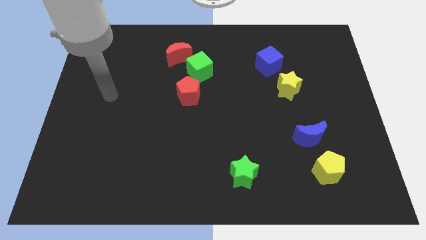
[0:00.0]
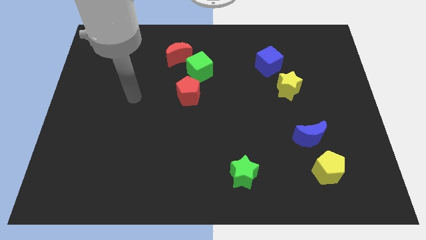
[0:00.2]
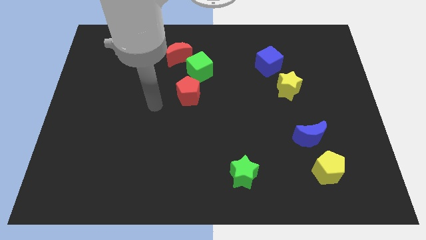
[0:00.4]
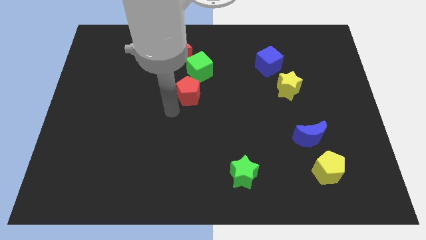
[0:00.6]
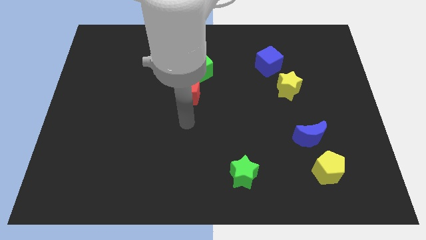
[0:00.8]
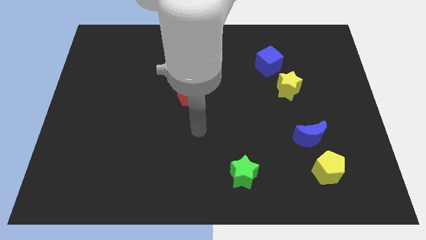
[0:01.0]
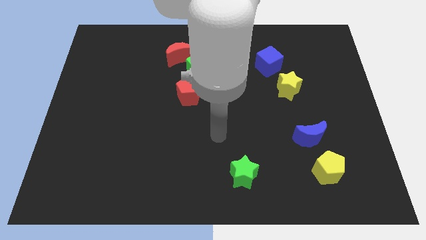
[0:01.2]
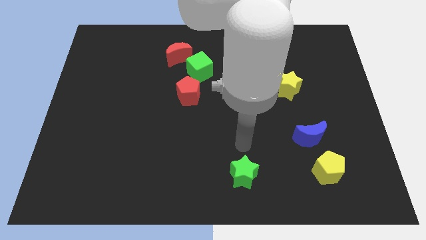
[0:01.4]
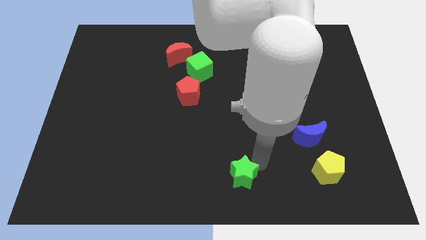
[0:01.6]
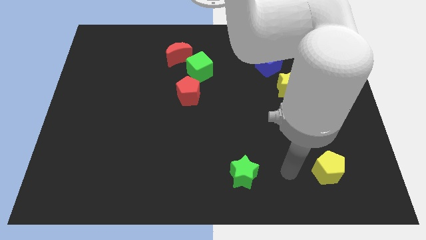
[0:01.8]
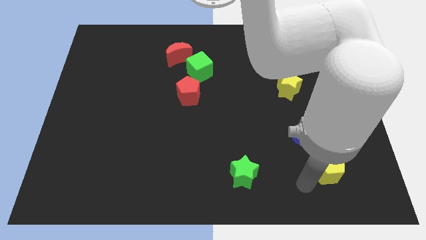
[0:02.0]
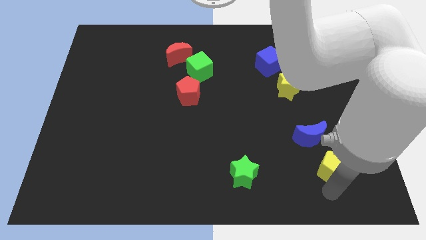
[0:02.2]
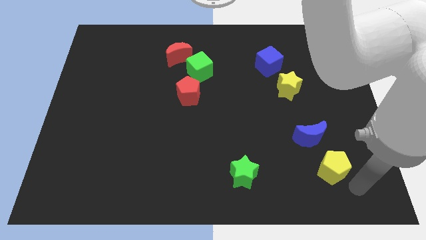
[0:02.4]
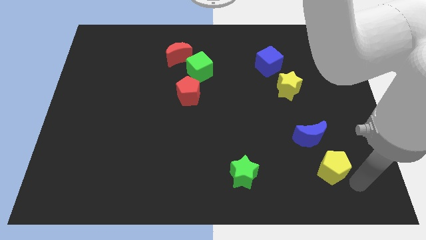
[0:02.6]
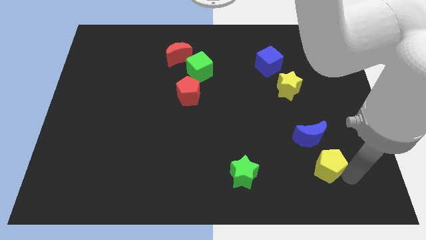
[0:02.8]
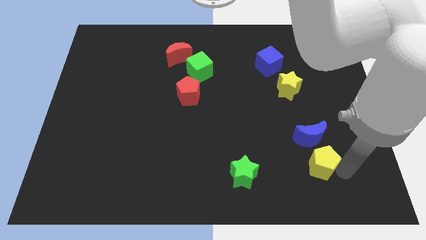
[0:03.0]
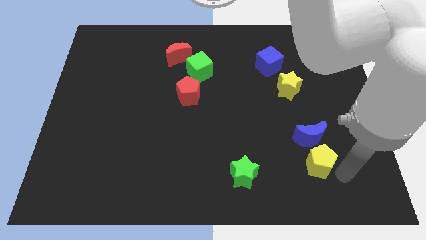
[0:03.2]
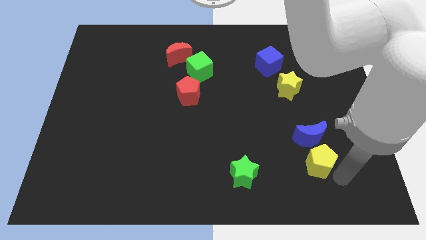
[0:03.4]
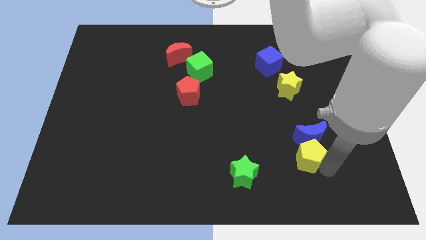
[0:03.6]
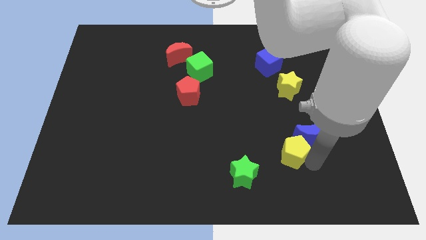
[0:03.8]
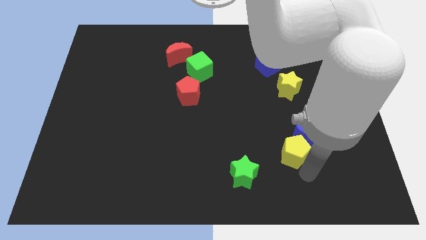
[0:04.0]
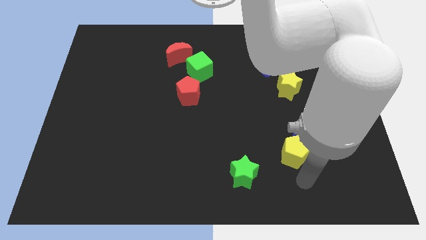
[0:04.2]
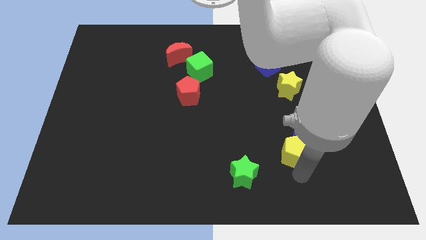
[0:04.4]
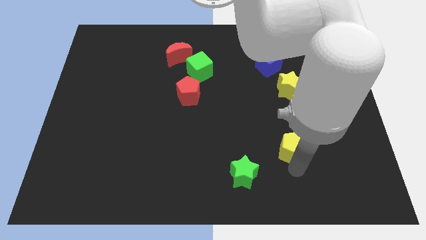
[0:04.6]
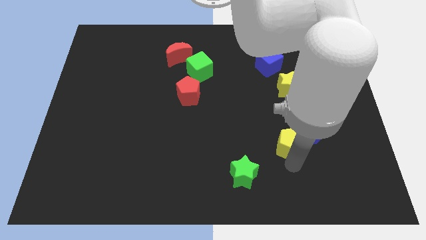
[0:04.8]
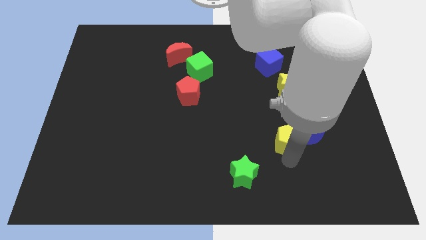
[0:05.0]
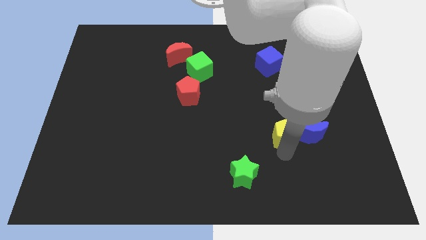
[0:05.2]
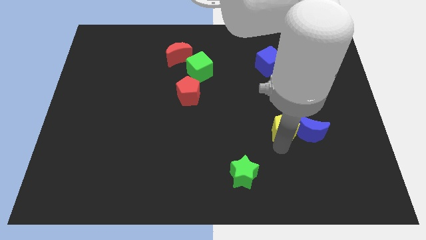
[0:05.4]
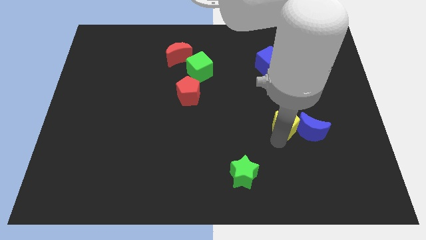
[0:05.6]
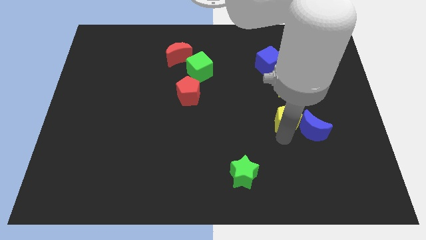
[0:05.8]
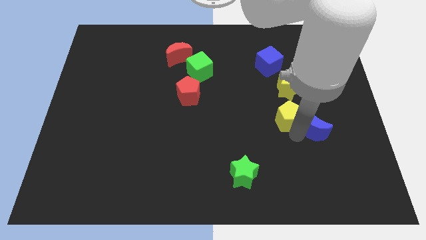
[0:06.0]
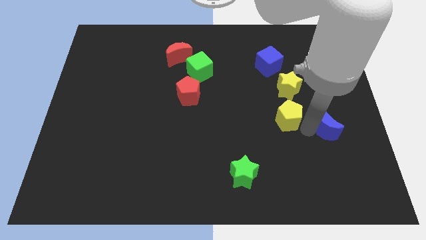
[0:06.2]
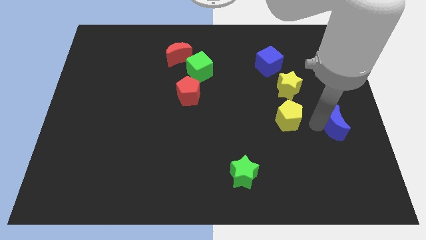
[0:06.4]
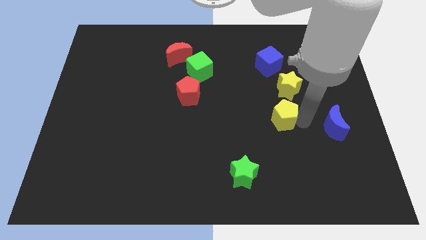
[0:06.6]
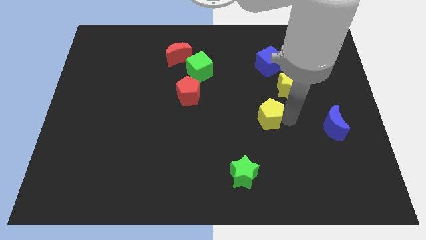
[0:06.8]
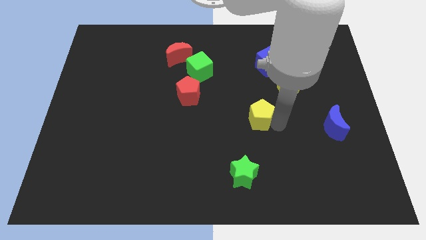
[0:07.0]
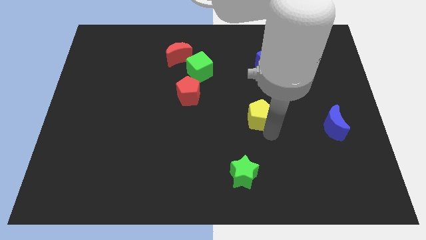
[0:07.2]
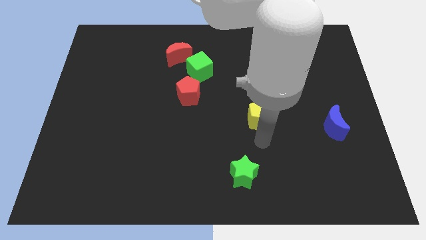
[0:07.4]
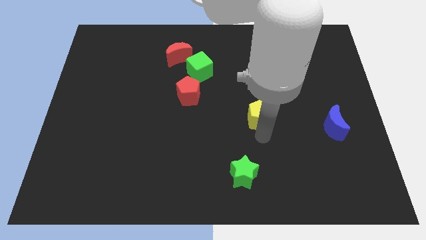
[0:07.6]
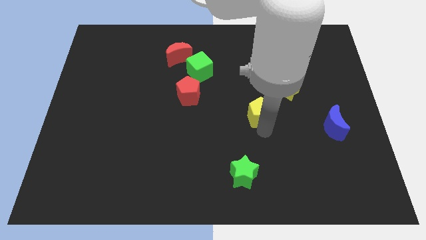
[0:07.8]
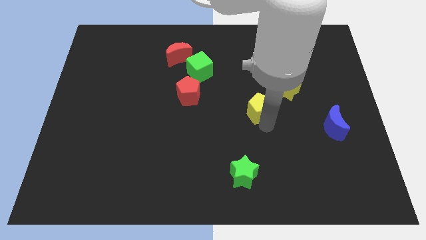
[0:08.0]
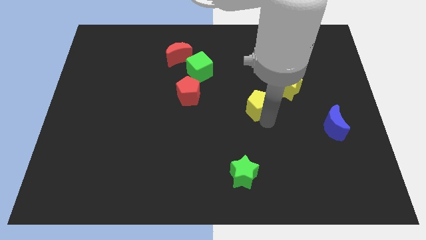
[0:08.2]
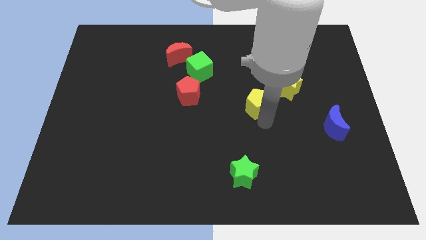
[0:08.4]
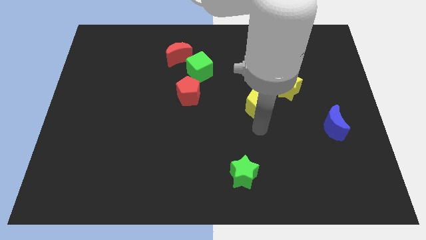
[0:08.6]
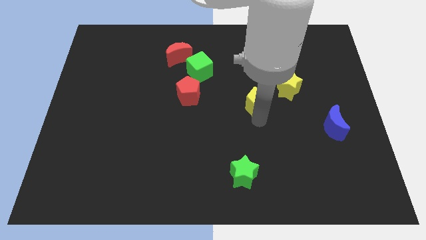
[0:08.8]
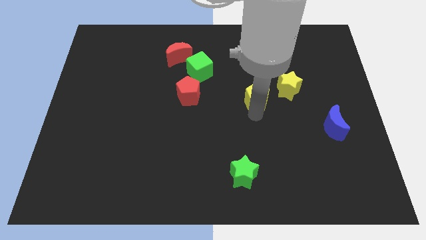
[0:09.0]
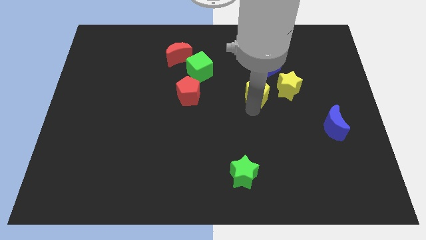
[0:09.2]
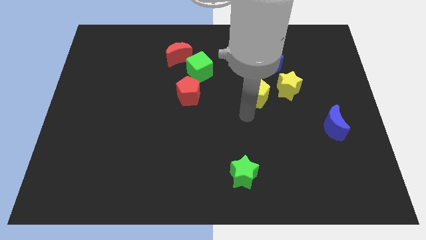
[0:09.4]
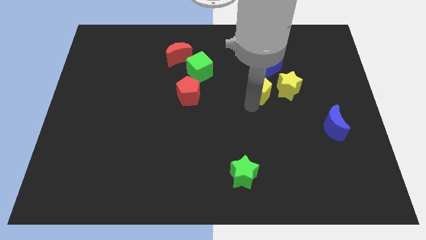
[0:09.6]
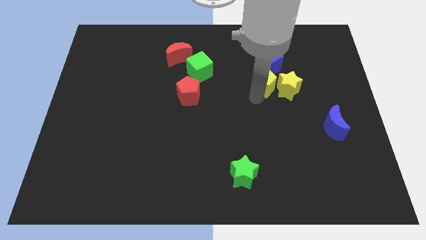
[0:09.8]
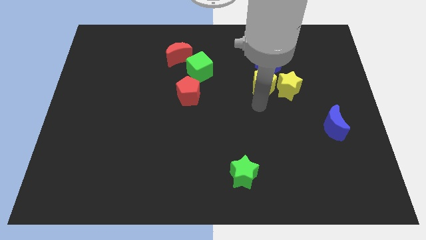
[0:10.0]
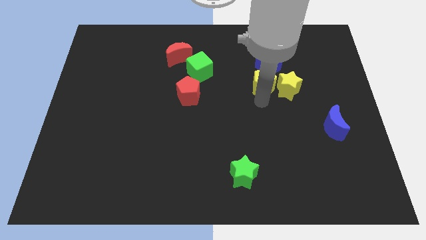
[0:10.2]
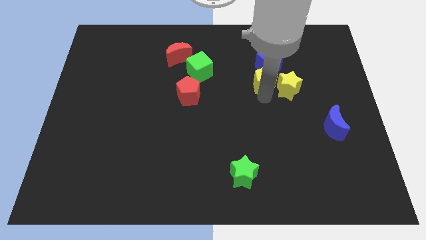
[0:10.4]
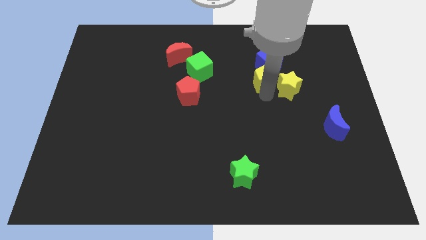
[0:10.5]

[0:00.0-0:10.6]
push the yellow pentagon next to the blue cube

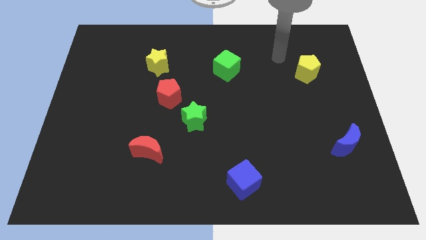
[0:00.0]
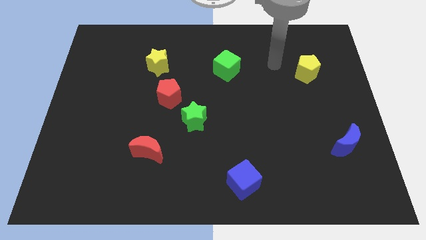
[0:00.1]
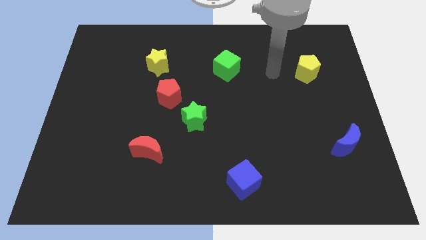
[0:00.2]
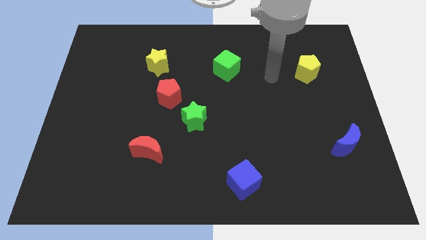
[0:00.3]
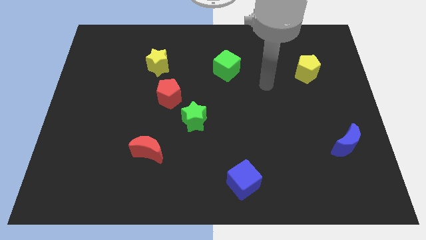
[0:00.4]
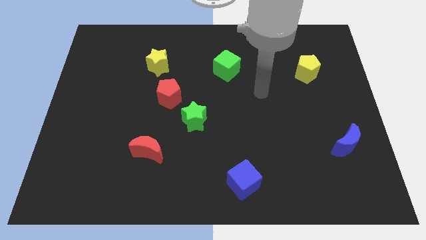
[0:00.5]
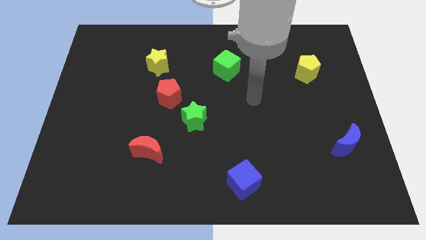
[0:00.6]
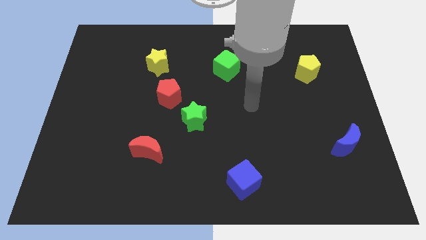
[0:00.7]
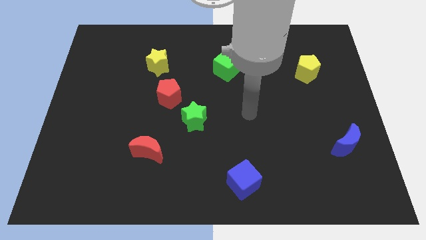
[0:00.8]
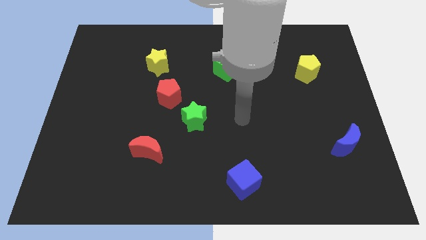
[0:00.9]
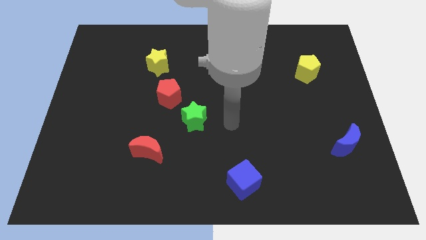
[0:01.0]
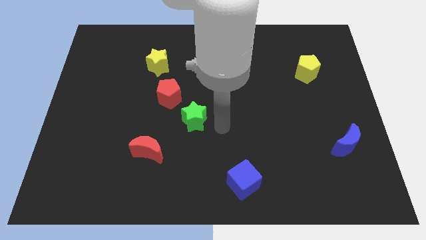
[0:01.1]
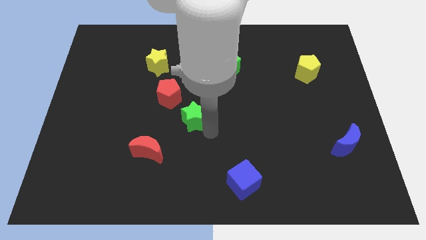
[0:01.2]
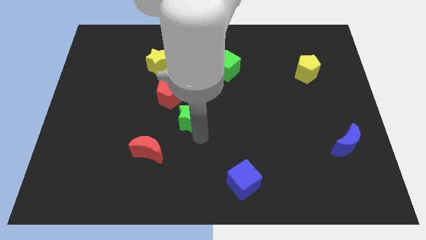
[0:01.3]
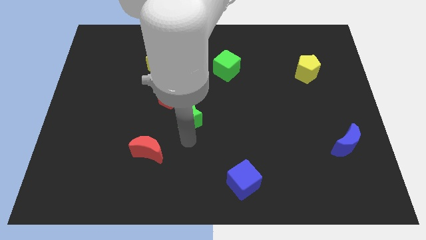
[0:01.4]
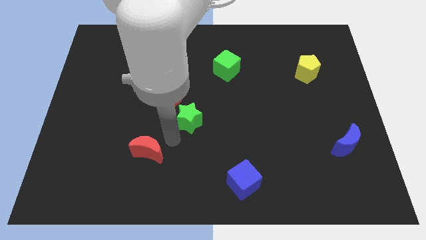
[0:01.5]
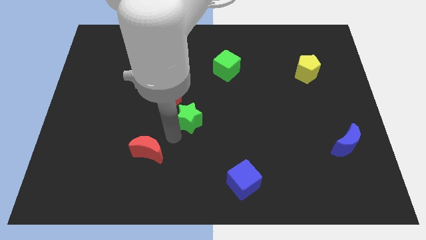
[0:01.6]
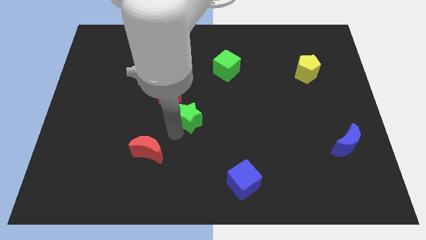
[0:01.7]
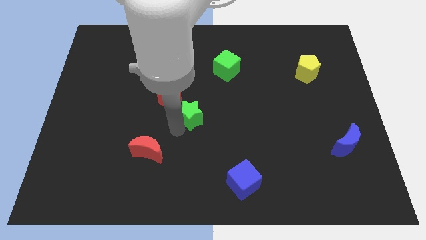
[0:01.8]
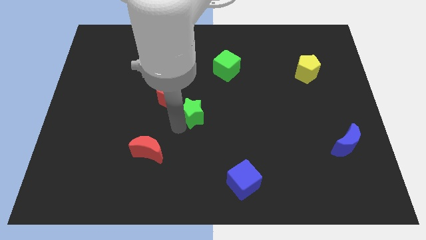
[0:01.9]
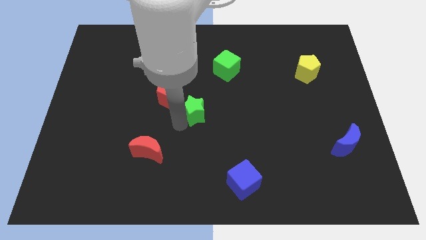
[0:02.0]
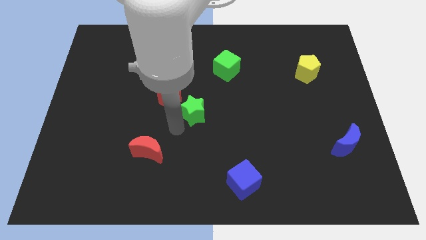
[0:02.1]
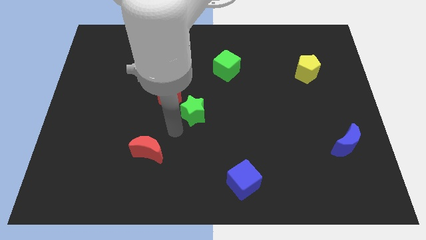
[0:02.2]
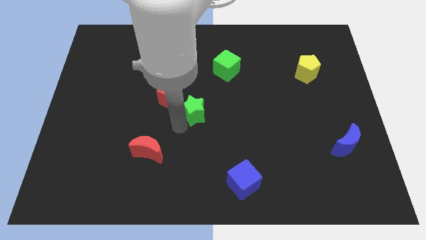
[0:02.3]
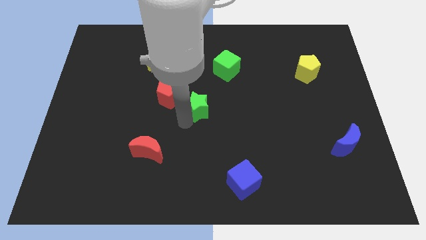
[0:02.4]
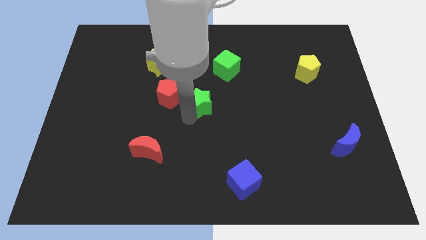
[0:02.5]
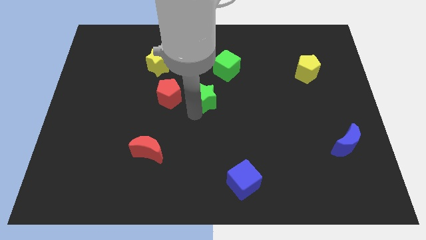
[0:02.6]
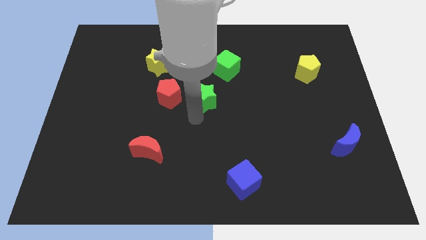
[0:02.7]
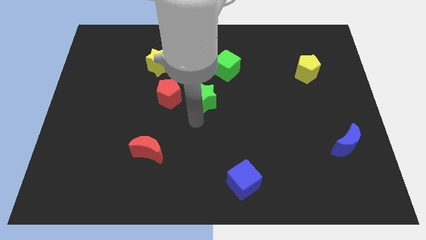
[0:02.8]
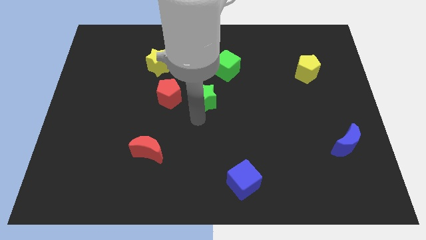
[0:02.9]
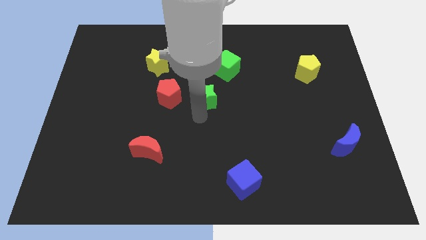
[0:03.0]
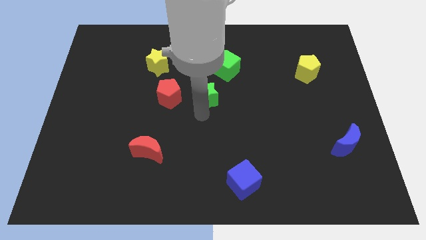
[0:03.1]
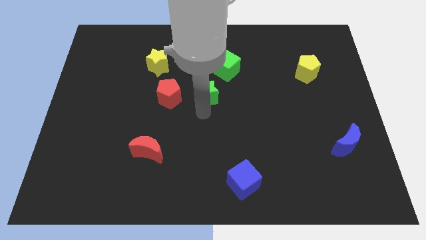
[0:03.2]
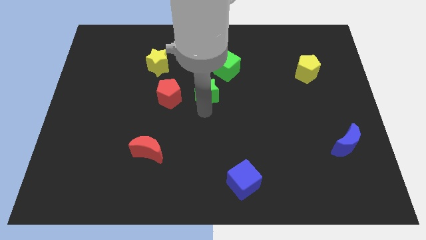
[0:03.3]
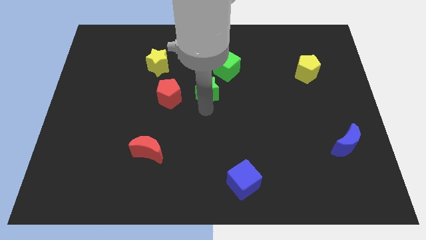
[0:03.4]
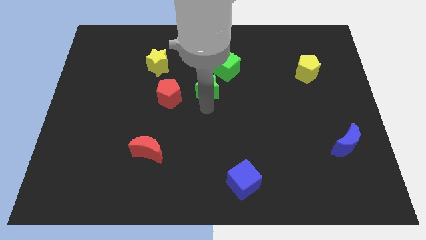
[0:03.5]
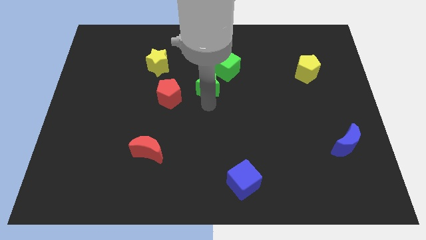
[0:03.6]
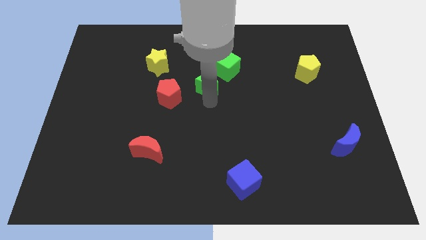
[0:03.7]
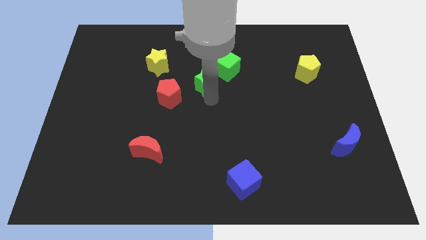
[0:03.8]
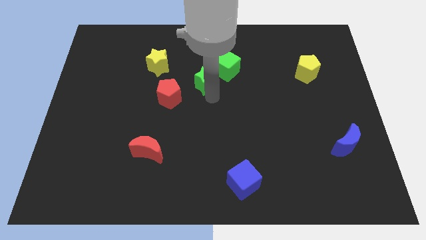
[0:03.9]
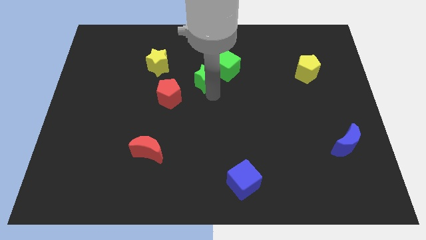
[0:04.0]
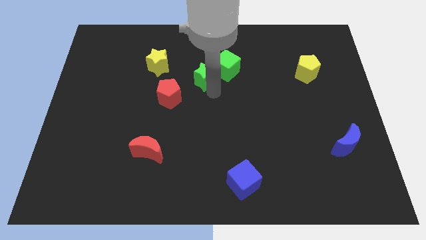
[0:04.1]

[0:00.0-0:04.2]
push the green star close to the green cube
